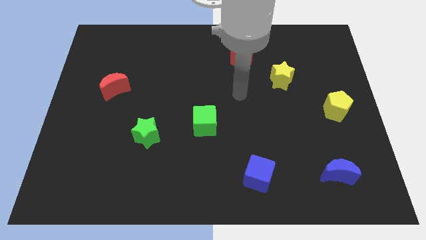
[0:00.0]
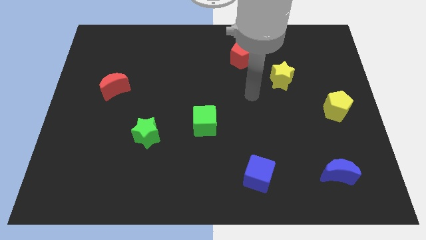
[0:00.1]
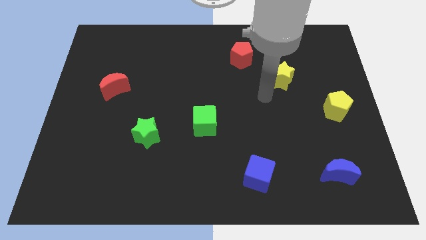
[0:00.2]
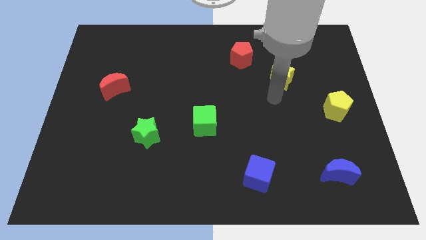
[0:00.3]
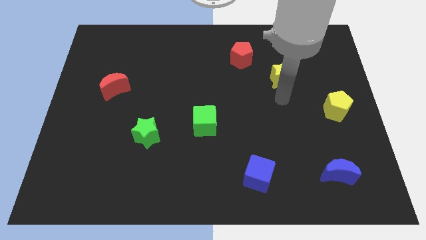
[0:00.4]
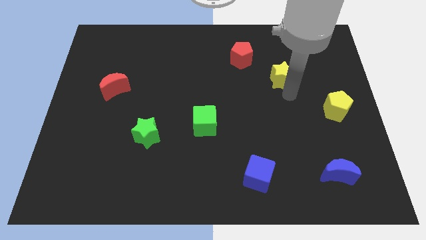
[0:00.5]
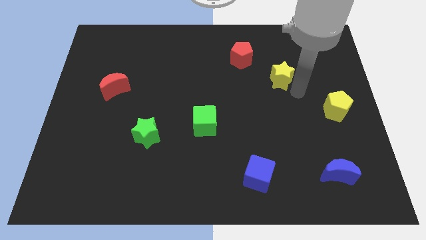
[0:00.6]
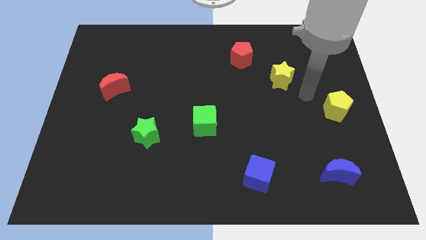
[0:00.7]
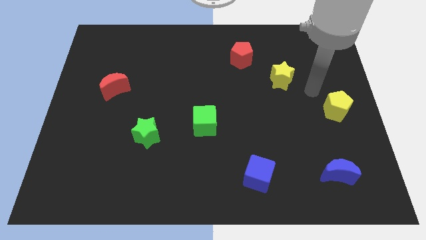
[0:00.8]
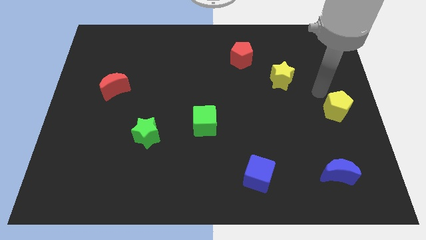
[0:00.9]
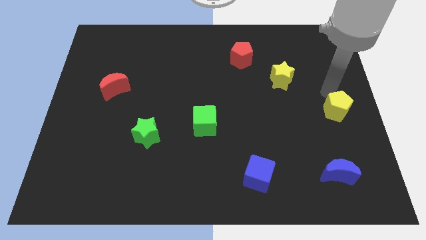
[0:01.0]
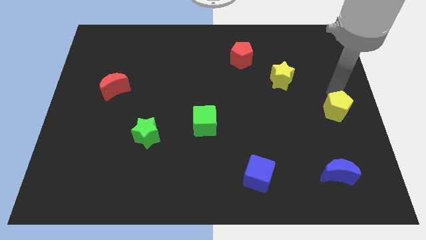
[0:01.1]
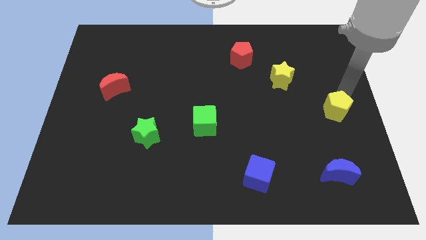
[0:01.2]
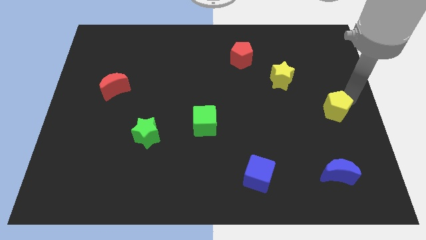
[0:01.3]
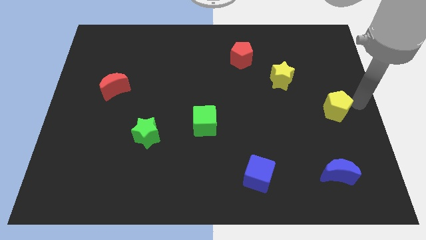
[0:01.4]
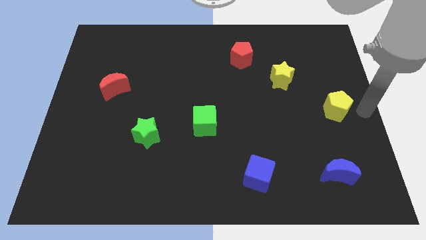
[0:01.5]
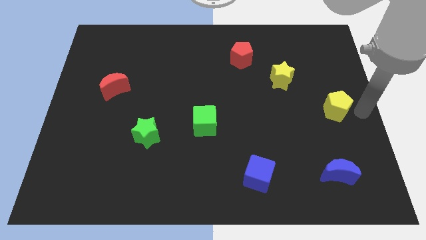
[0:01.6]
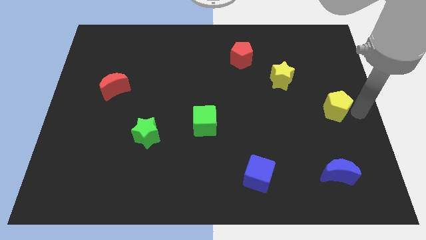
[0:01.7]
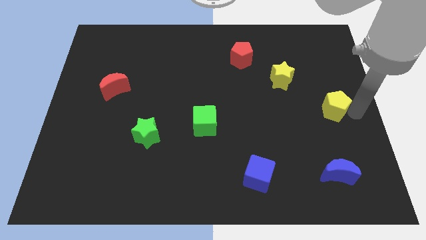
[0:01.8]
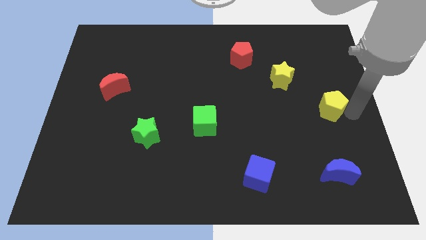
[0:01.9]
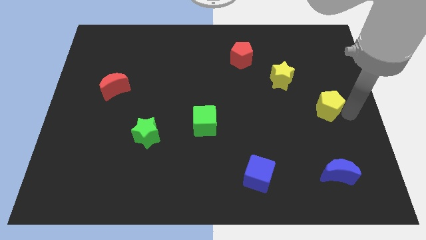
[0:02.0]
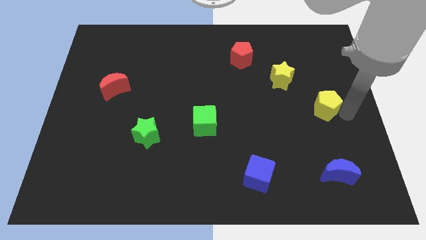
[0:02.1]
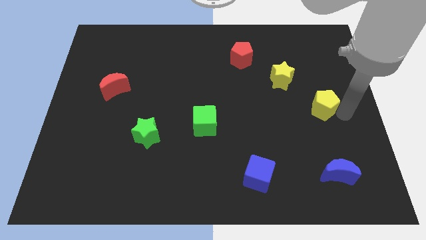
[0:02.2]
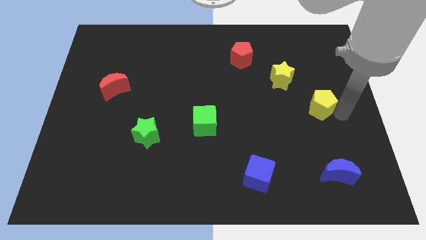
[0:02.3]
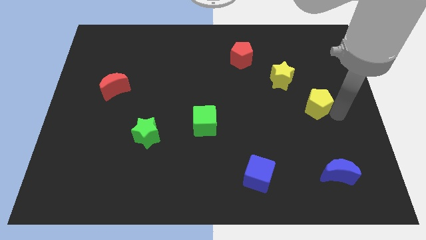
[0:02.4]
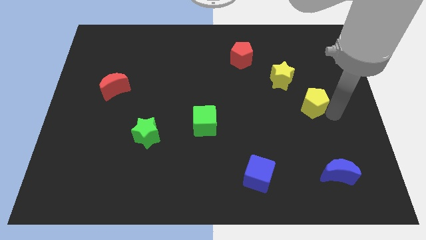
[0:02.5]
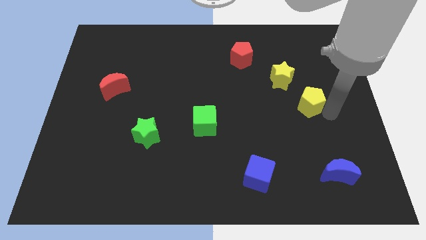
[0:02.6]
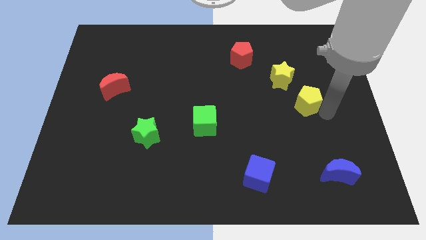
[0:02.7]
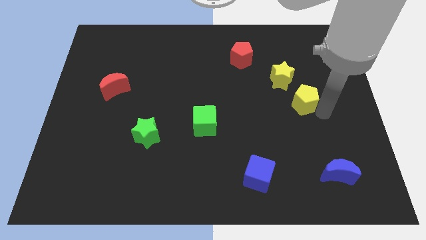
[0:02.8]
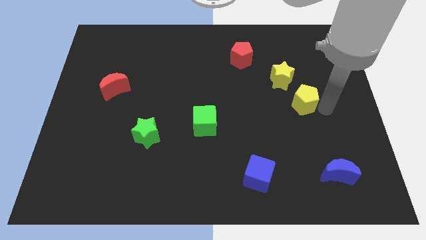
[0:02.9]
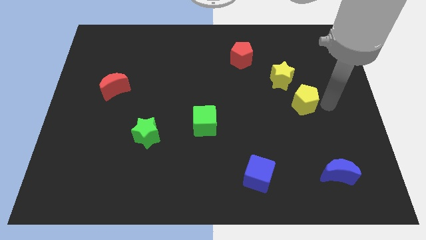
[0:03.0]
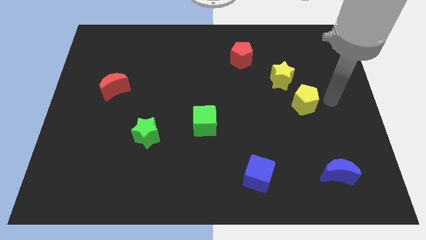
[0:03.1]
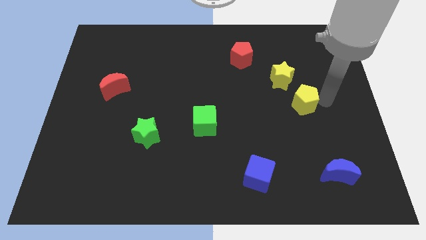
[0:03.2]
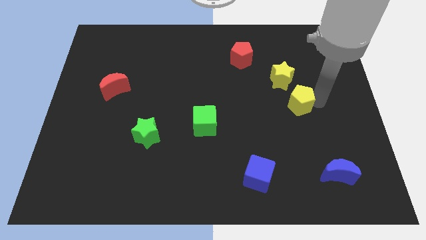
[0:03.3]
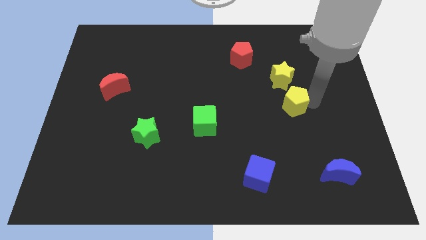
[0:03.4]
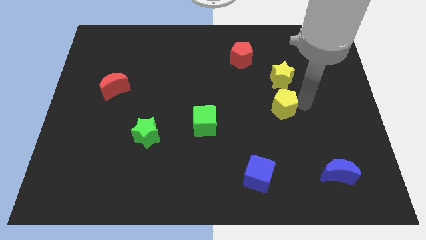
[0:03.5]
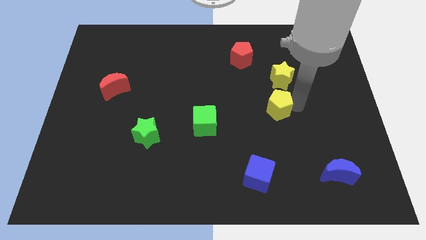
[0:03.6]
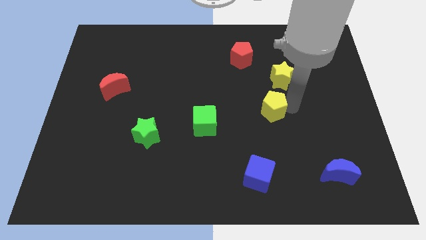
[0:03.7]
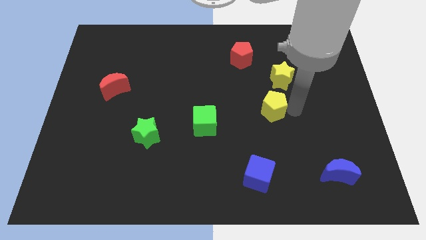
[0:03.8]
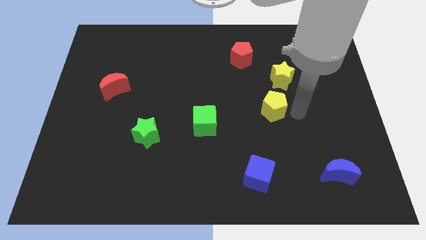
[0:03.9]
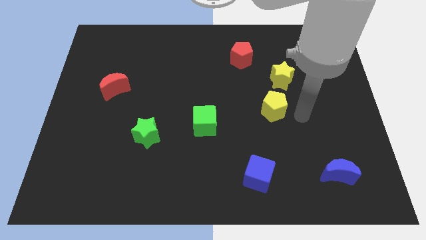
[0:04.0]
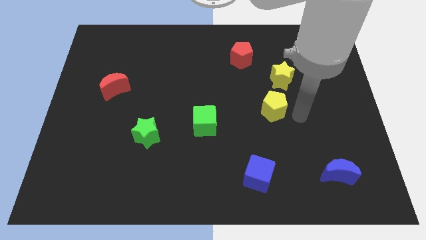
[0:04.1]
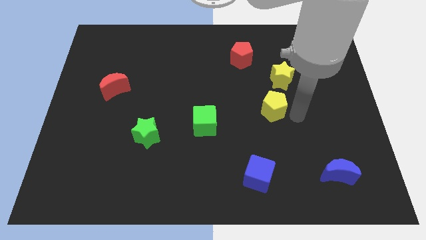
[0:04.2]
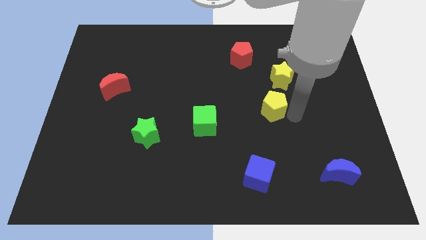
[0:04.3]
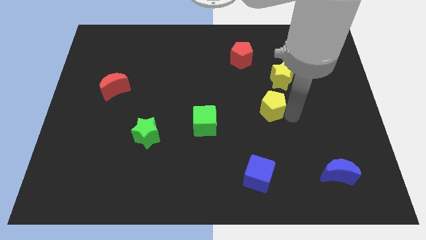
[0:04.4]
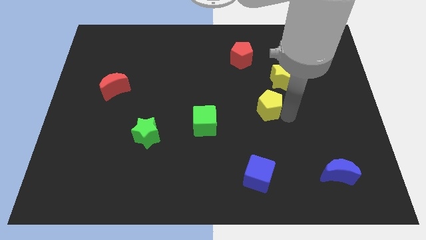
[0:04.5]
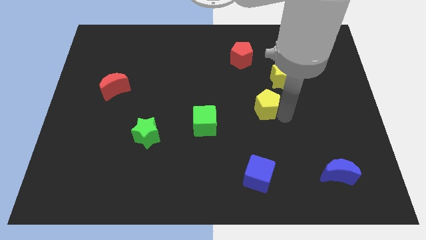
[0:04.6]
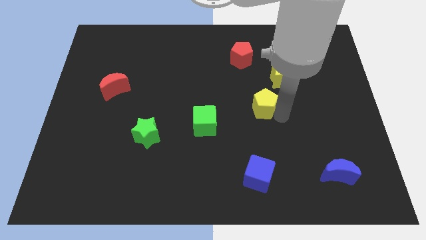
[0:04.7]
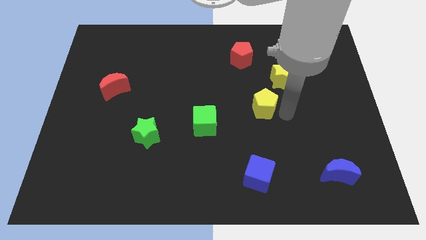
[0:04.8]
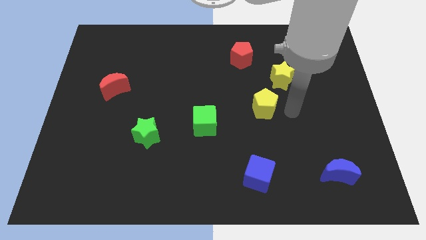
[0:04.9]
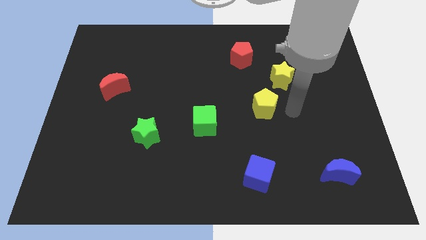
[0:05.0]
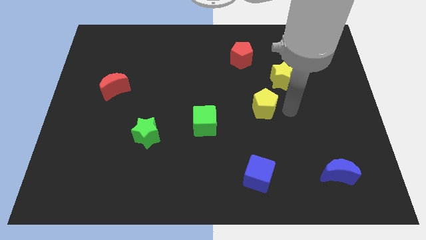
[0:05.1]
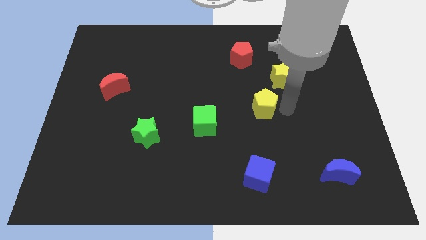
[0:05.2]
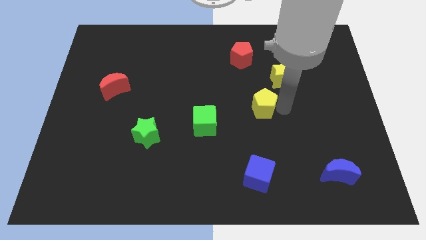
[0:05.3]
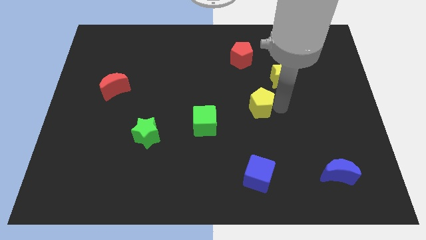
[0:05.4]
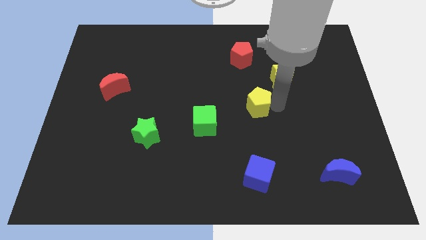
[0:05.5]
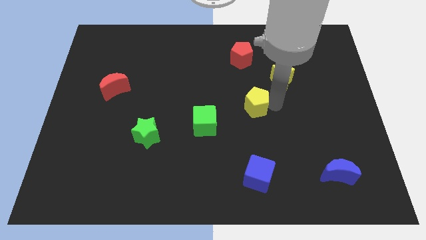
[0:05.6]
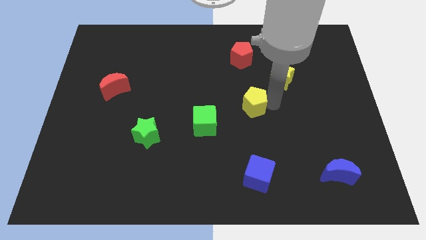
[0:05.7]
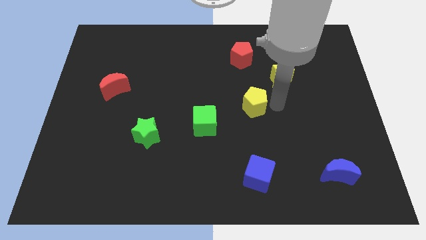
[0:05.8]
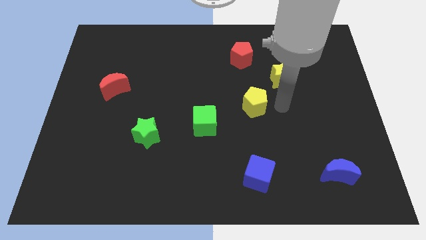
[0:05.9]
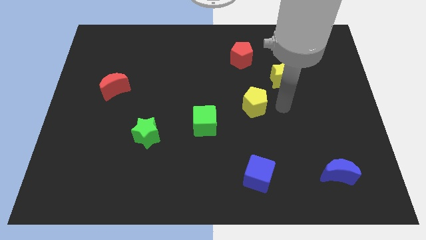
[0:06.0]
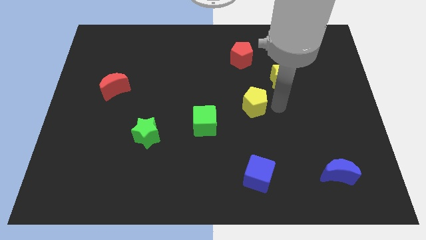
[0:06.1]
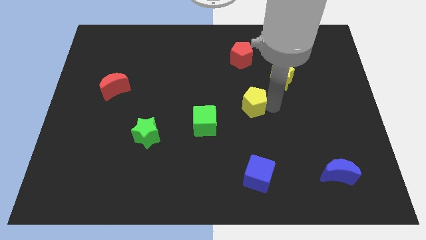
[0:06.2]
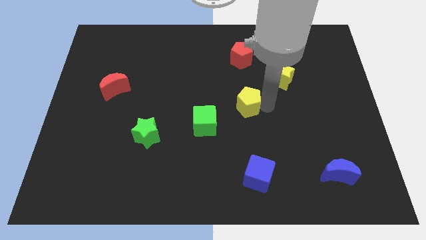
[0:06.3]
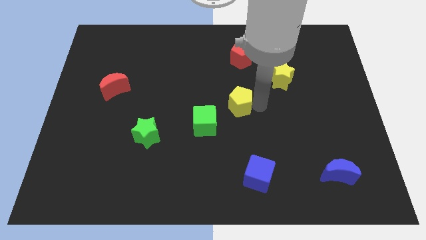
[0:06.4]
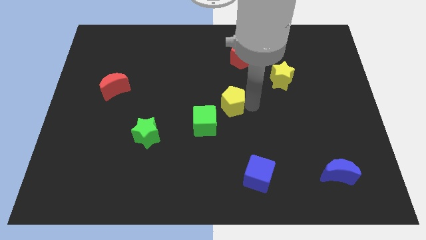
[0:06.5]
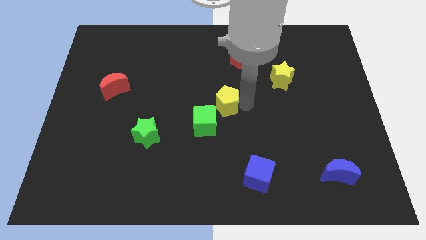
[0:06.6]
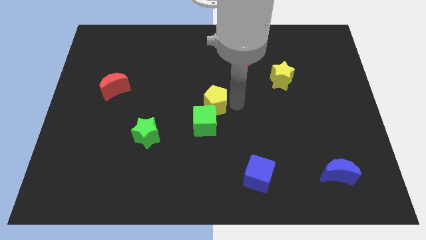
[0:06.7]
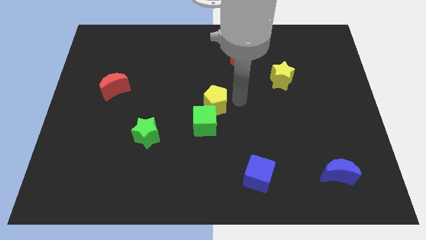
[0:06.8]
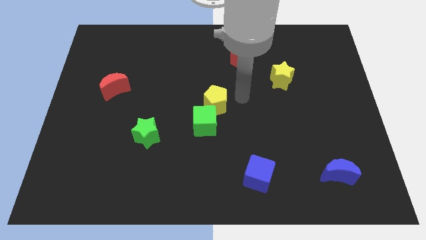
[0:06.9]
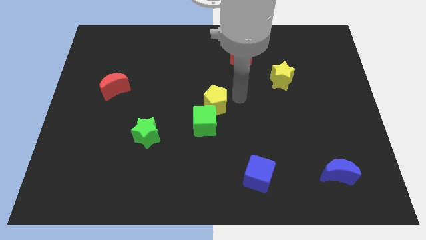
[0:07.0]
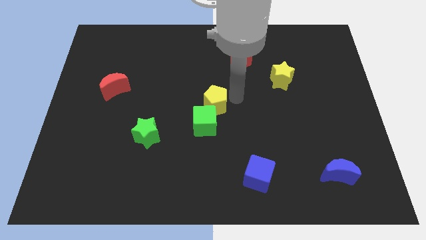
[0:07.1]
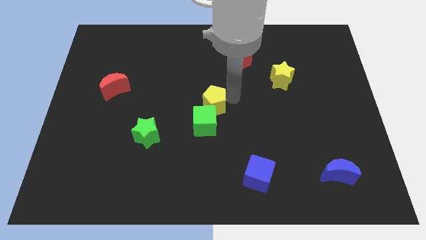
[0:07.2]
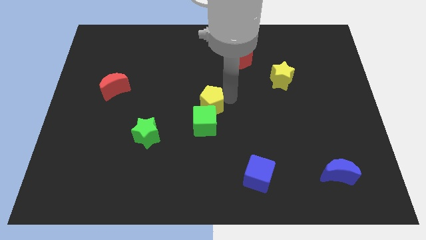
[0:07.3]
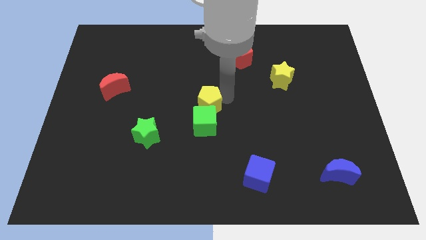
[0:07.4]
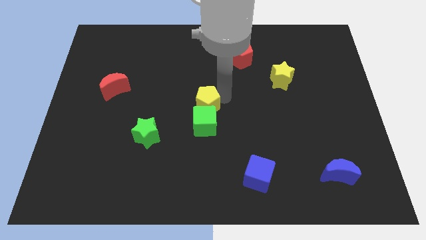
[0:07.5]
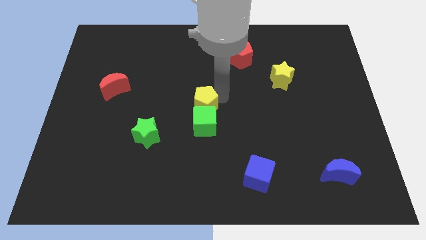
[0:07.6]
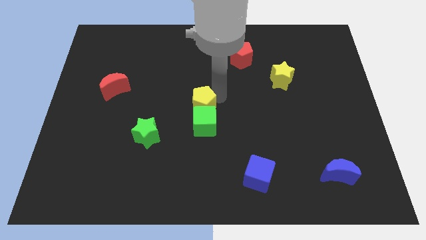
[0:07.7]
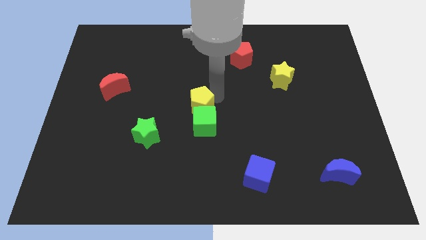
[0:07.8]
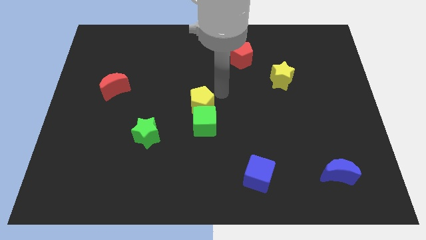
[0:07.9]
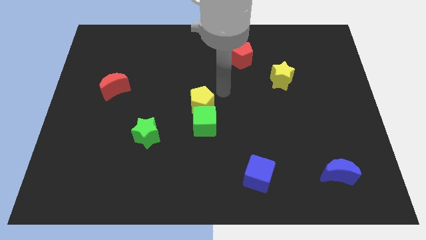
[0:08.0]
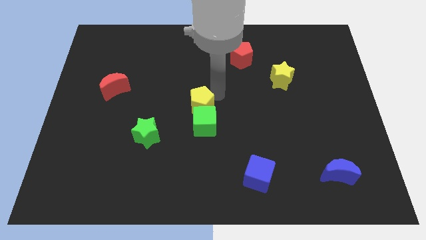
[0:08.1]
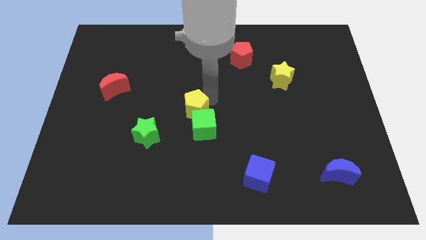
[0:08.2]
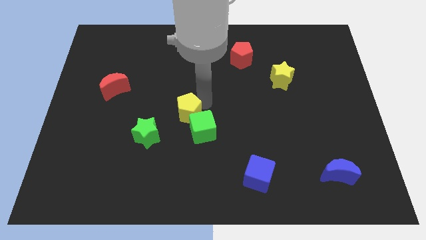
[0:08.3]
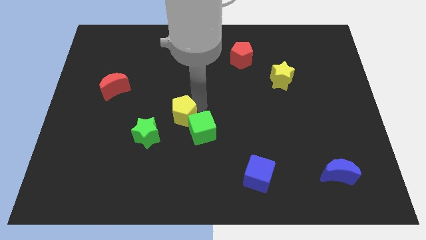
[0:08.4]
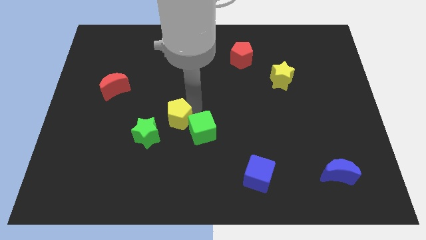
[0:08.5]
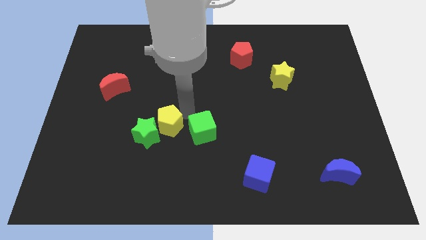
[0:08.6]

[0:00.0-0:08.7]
put the yellow pentagon to the green star
